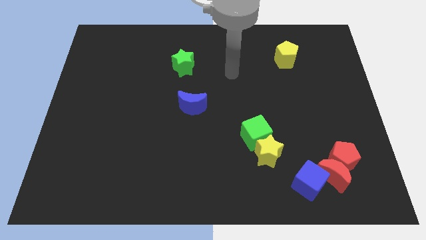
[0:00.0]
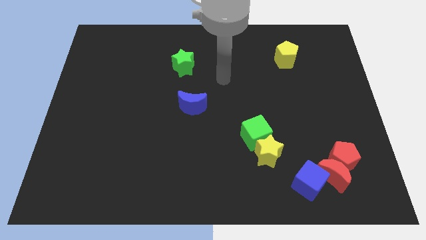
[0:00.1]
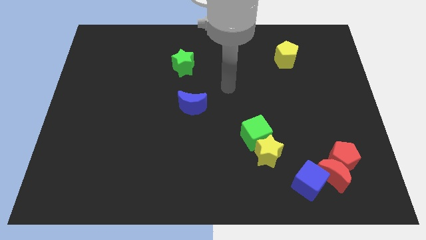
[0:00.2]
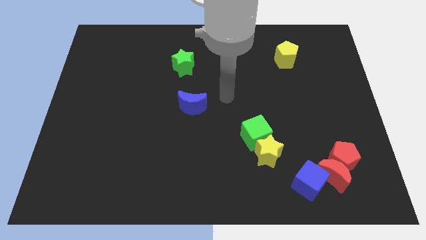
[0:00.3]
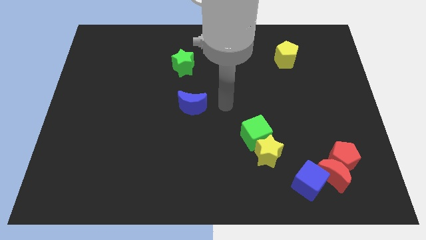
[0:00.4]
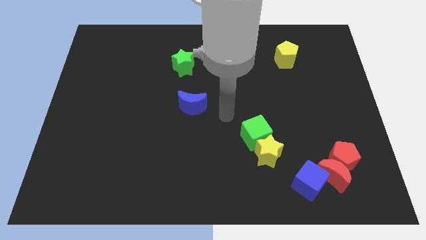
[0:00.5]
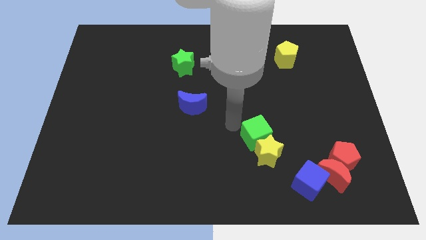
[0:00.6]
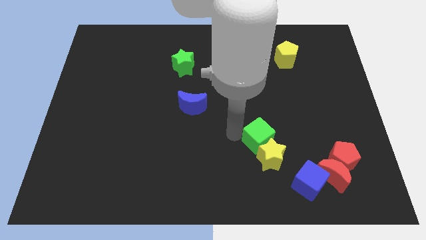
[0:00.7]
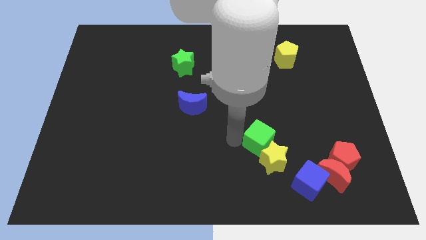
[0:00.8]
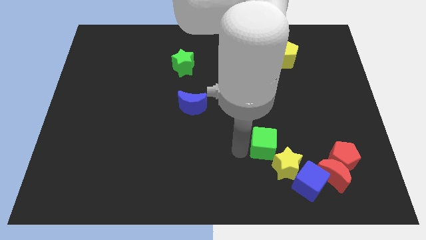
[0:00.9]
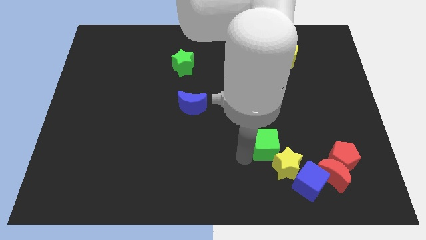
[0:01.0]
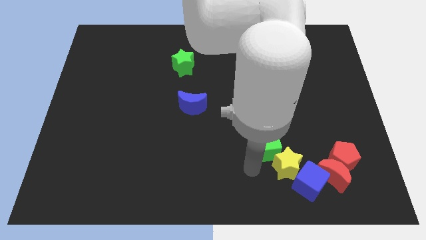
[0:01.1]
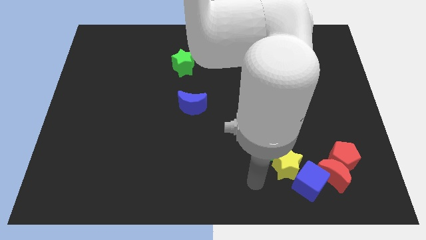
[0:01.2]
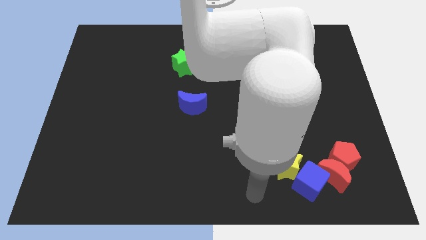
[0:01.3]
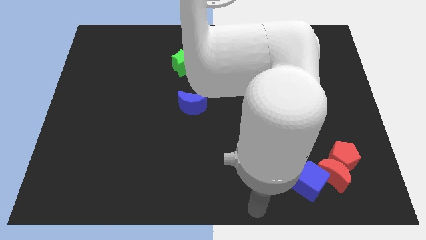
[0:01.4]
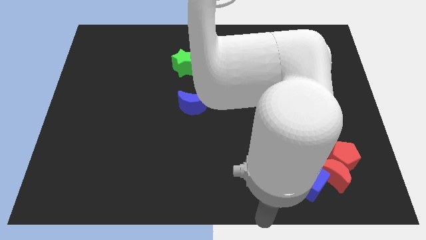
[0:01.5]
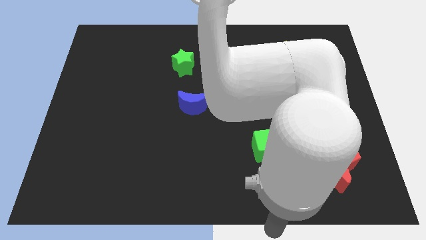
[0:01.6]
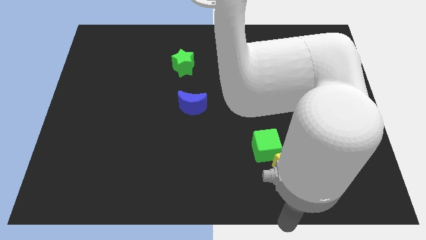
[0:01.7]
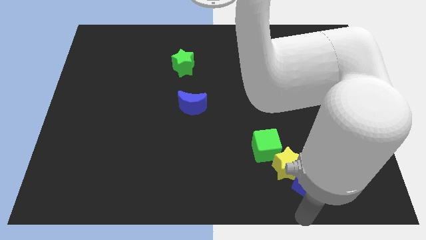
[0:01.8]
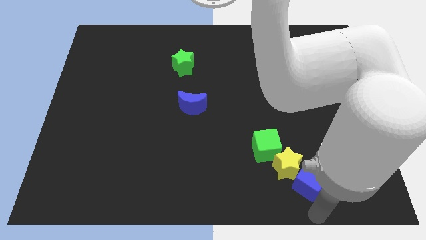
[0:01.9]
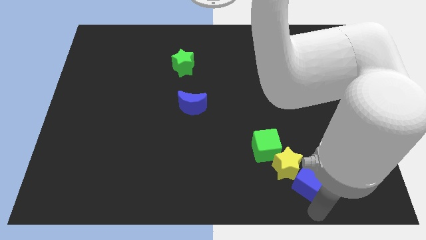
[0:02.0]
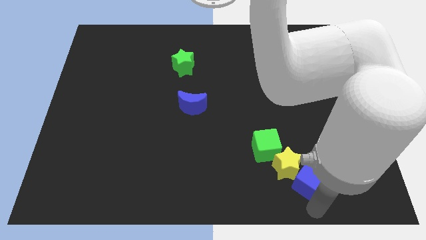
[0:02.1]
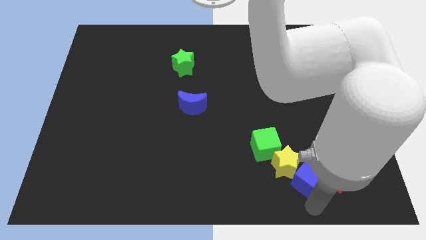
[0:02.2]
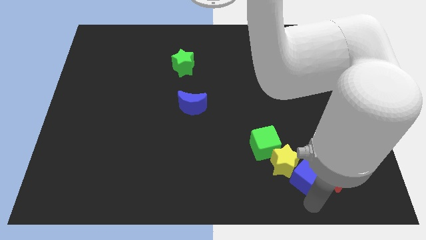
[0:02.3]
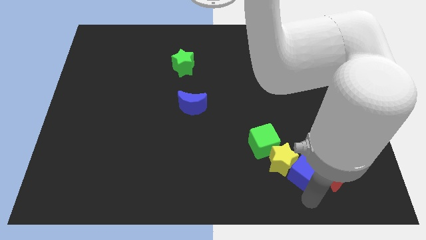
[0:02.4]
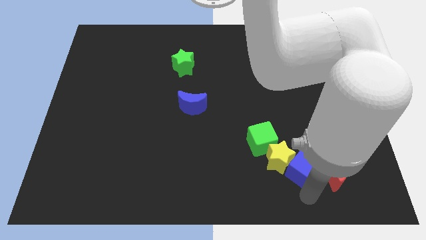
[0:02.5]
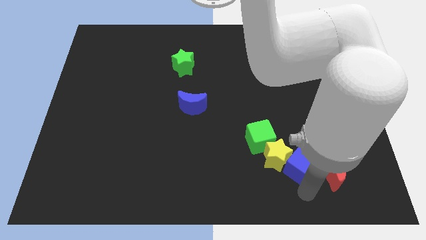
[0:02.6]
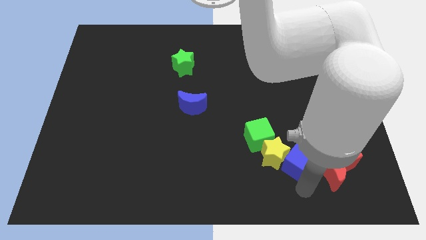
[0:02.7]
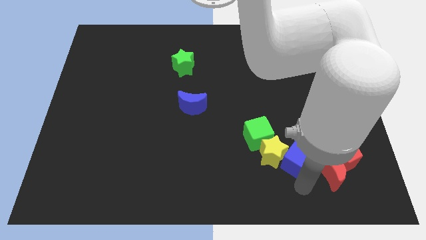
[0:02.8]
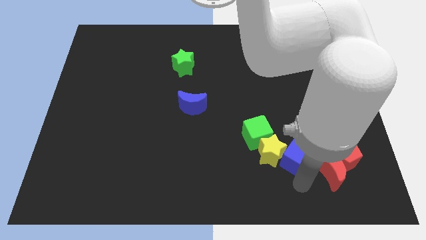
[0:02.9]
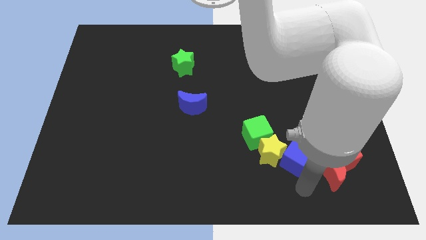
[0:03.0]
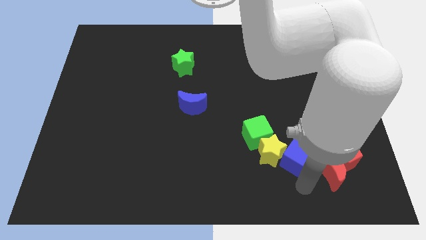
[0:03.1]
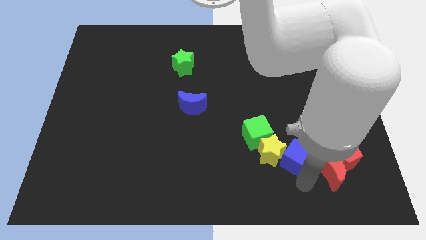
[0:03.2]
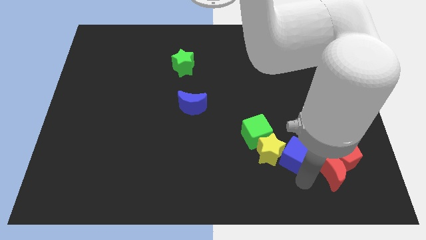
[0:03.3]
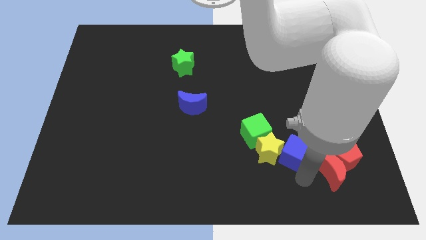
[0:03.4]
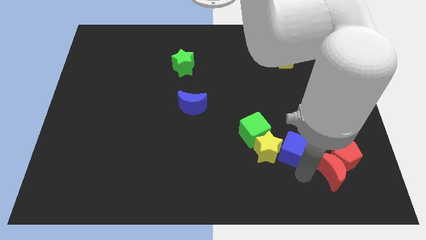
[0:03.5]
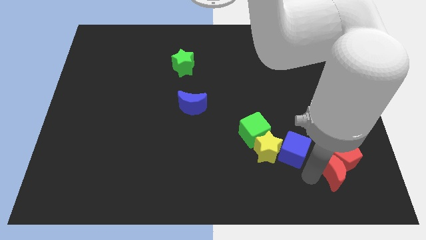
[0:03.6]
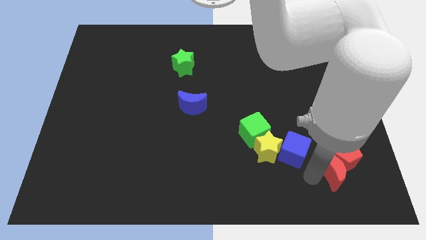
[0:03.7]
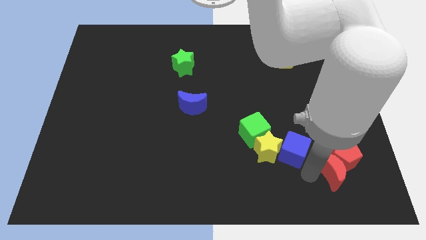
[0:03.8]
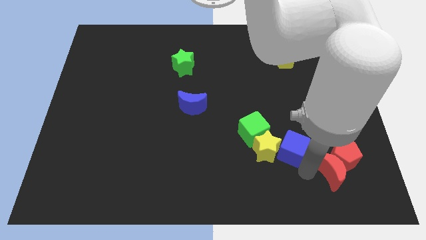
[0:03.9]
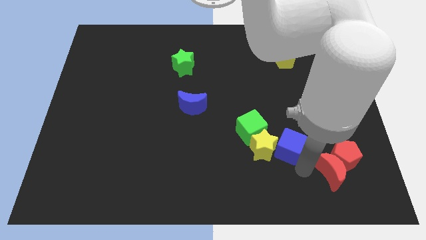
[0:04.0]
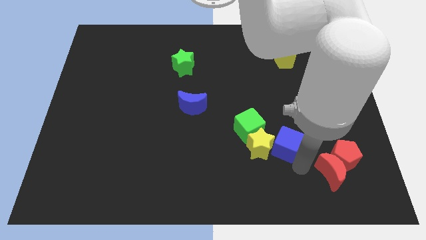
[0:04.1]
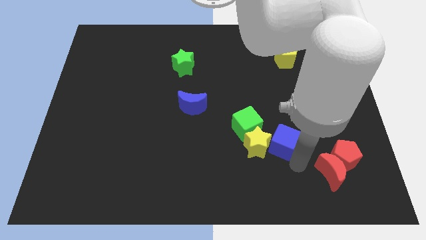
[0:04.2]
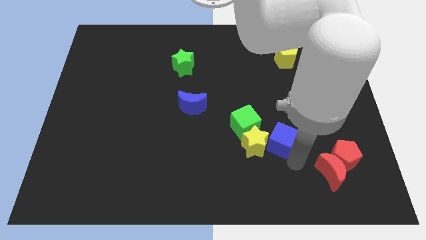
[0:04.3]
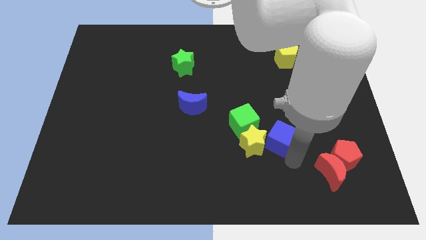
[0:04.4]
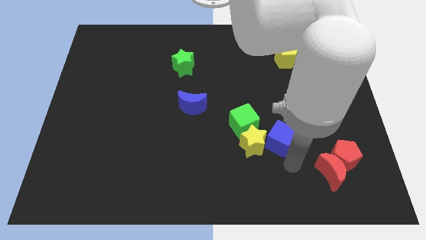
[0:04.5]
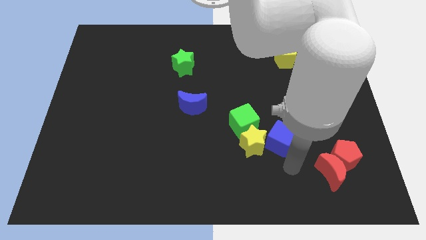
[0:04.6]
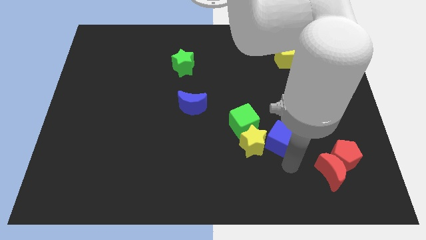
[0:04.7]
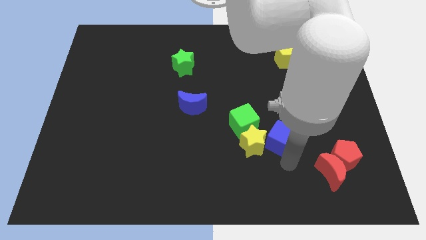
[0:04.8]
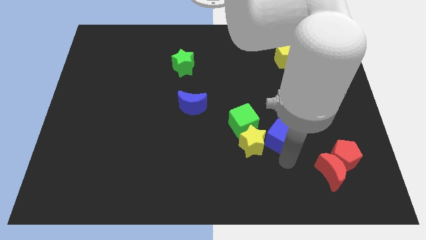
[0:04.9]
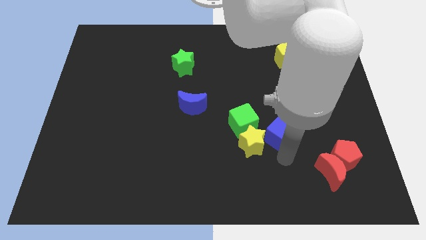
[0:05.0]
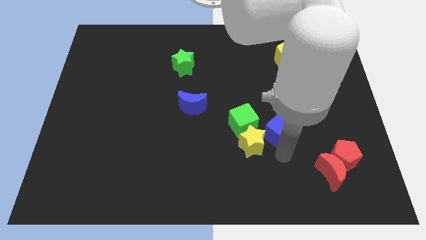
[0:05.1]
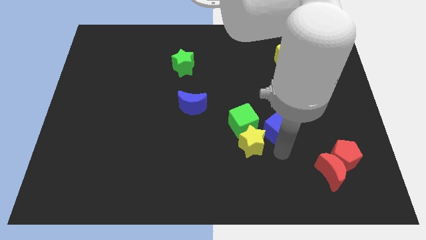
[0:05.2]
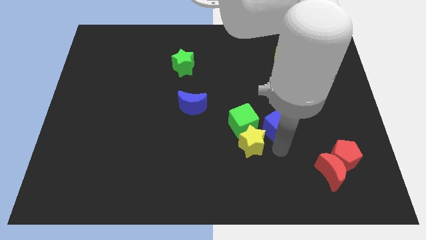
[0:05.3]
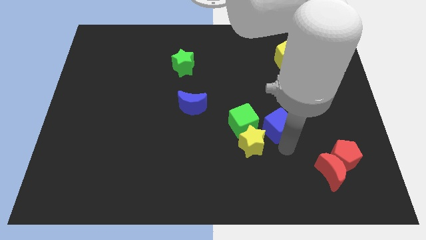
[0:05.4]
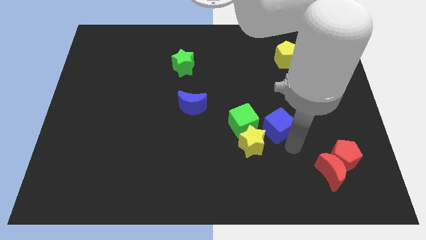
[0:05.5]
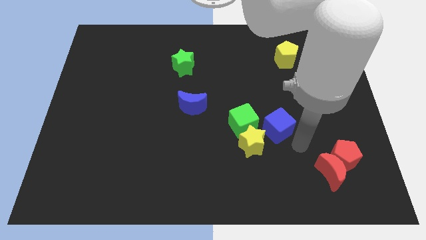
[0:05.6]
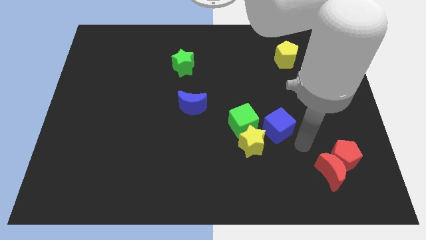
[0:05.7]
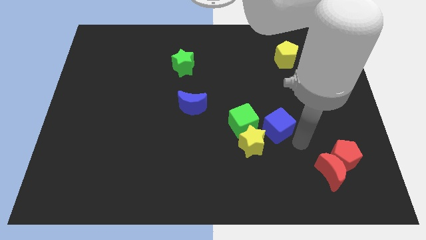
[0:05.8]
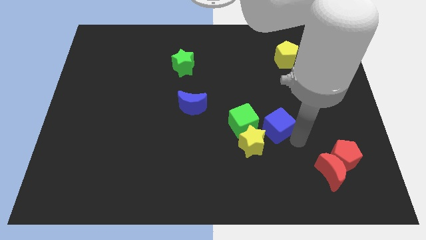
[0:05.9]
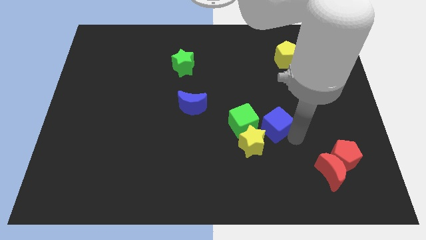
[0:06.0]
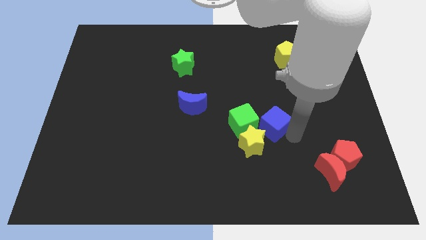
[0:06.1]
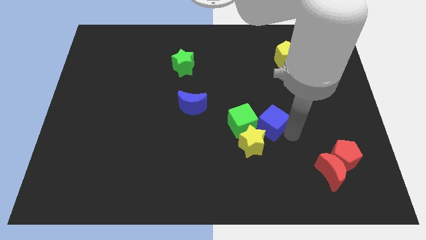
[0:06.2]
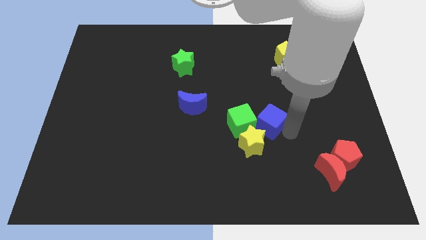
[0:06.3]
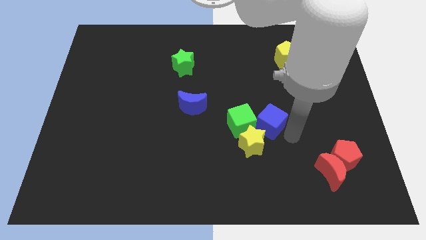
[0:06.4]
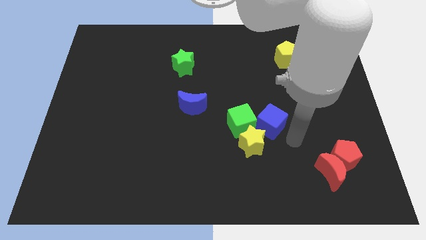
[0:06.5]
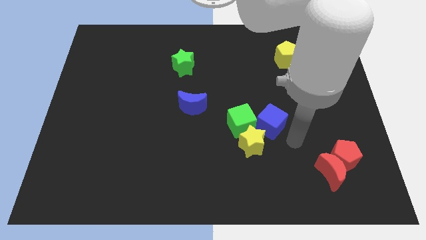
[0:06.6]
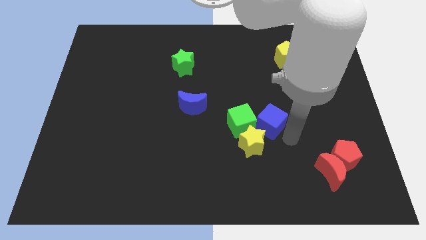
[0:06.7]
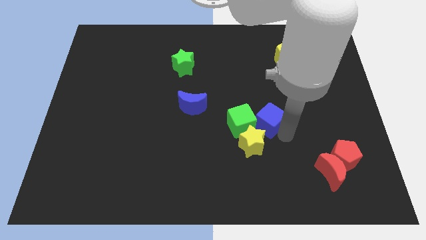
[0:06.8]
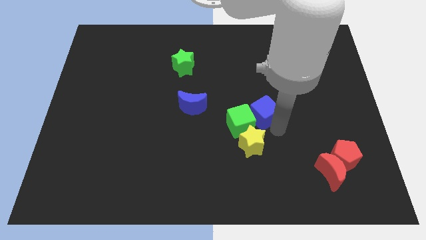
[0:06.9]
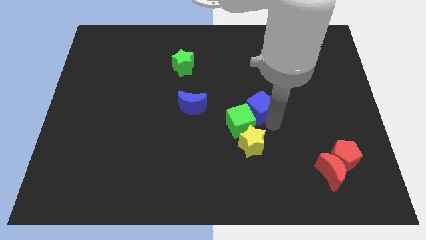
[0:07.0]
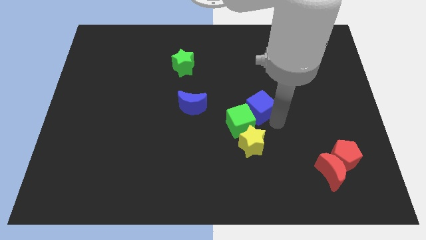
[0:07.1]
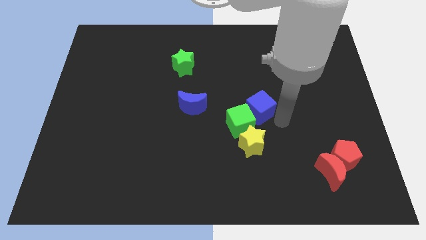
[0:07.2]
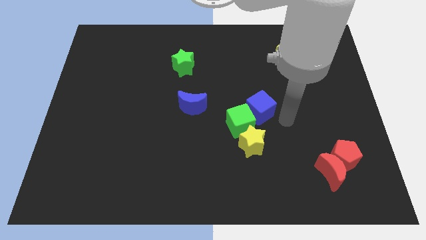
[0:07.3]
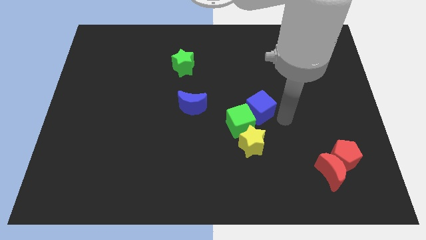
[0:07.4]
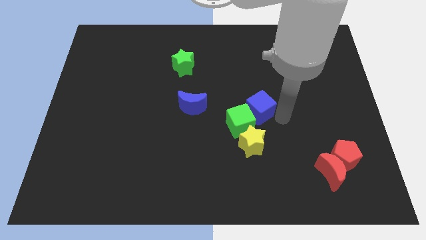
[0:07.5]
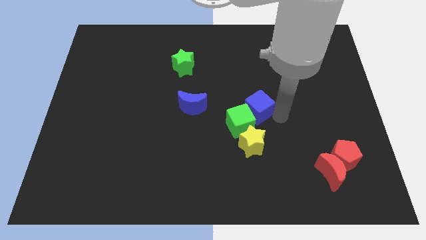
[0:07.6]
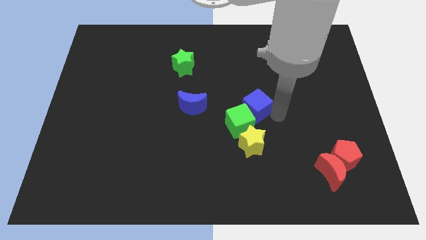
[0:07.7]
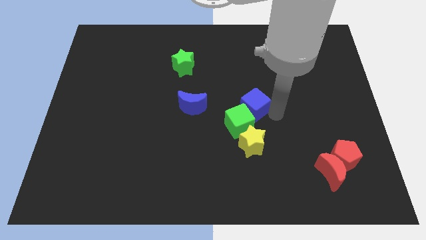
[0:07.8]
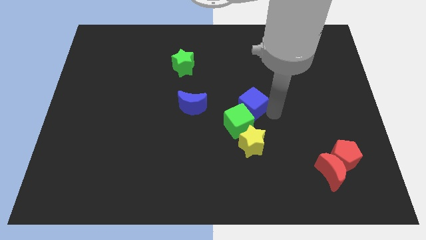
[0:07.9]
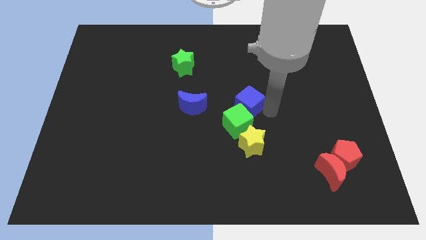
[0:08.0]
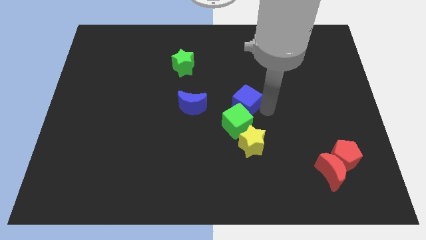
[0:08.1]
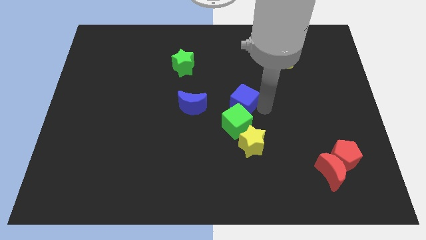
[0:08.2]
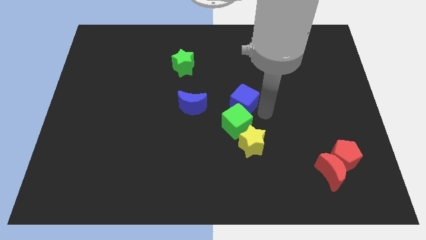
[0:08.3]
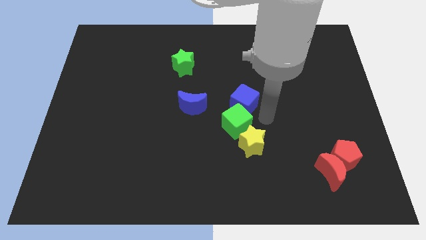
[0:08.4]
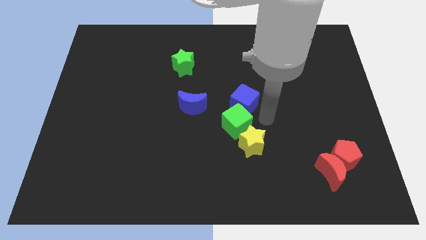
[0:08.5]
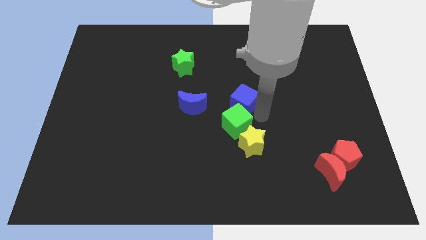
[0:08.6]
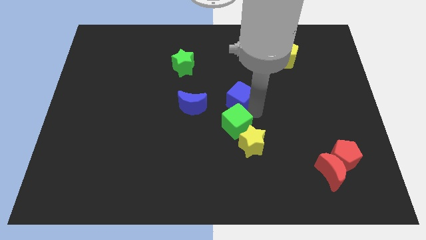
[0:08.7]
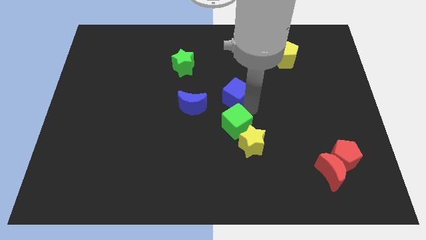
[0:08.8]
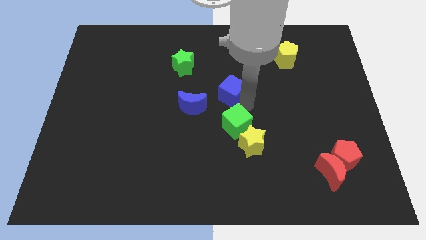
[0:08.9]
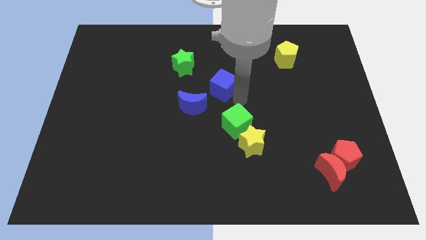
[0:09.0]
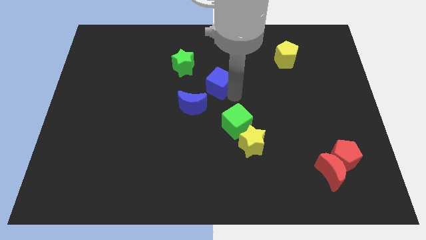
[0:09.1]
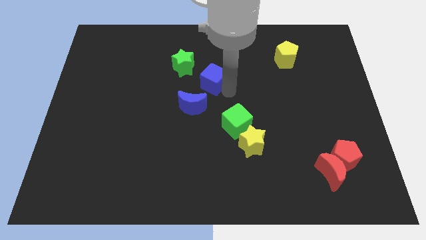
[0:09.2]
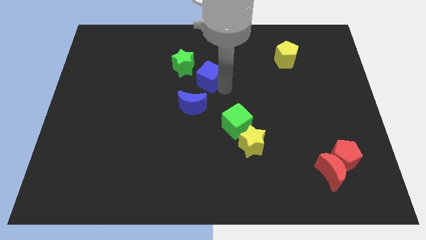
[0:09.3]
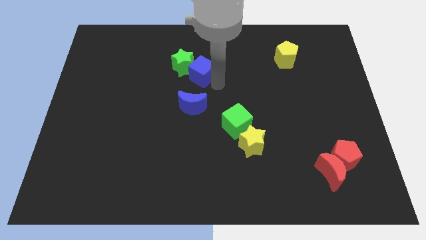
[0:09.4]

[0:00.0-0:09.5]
push the blue cube towards the green star
